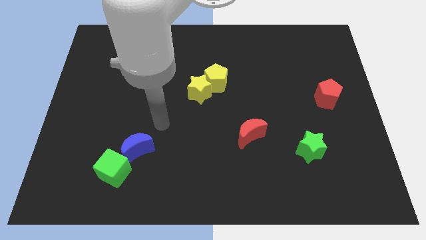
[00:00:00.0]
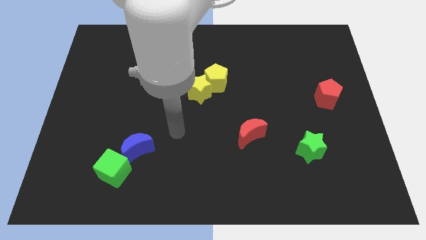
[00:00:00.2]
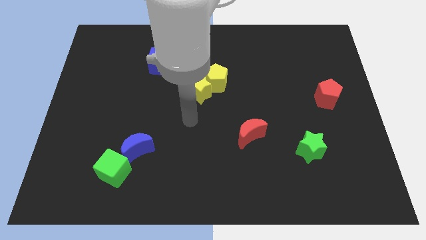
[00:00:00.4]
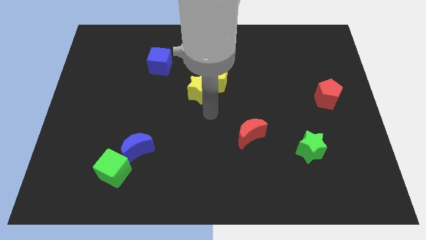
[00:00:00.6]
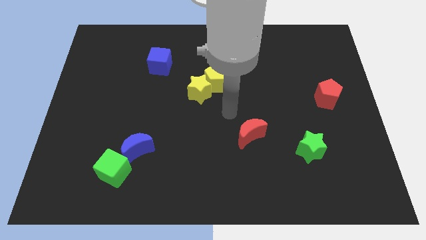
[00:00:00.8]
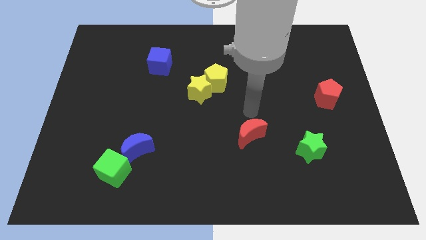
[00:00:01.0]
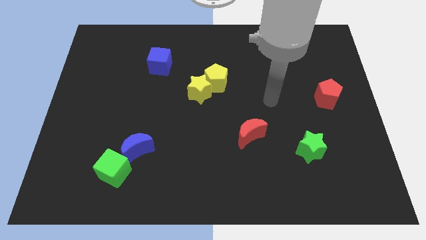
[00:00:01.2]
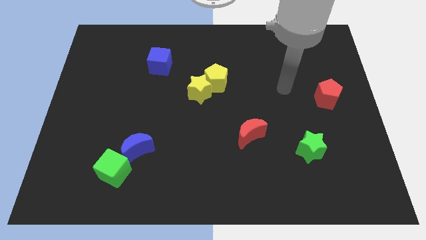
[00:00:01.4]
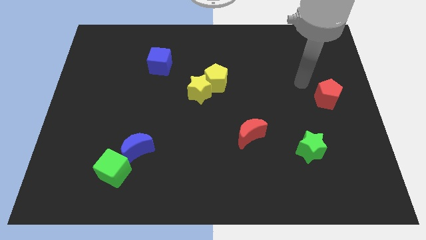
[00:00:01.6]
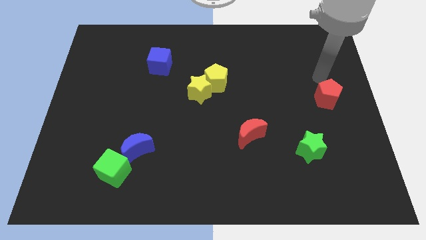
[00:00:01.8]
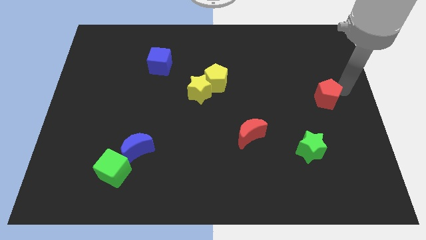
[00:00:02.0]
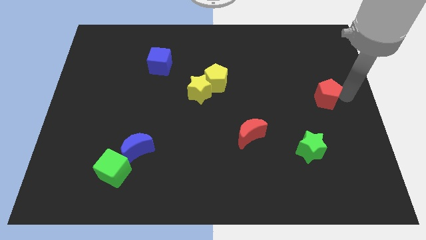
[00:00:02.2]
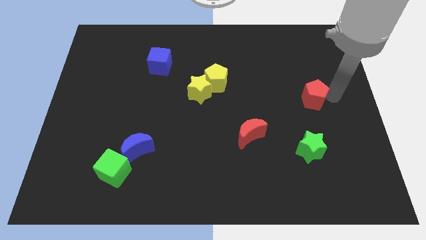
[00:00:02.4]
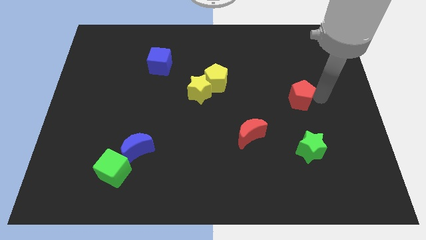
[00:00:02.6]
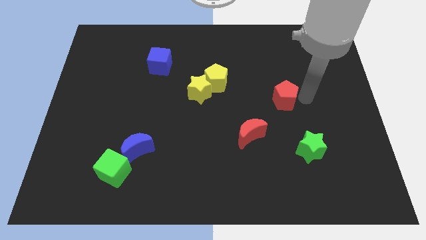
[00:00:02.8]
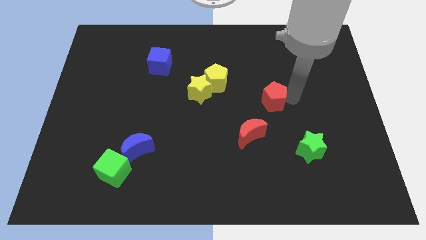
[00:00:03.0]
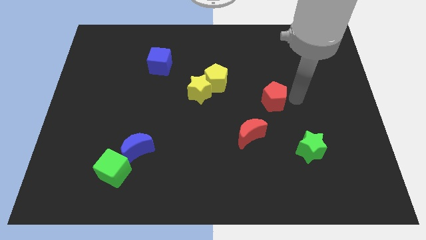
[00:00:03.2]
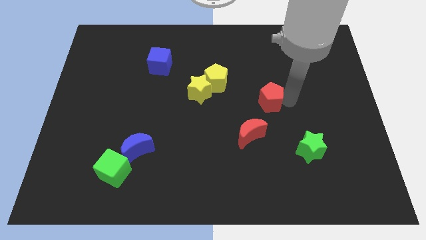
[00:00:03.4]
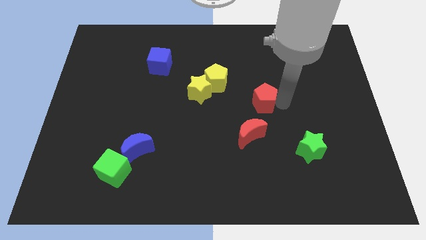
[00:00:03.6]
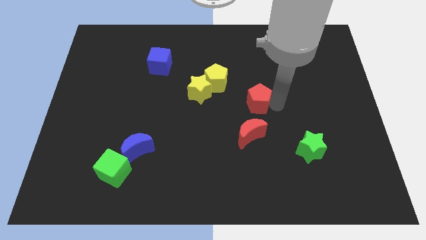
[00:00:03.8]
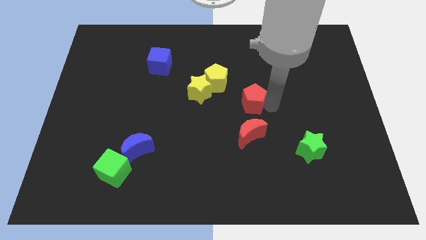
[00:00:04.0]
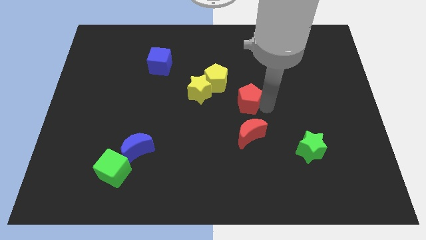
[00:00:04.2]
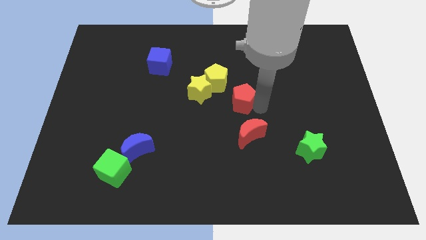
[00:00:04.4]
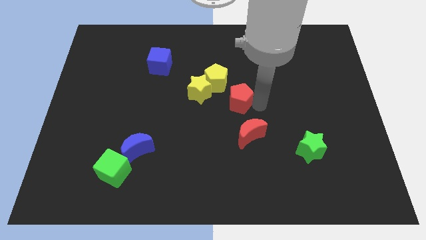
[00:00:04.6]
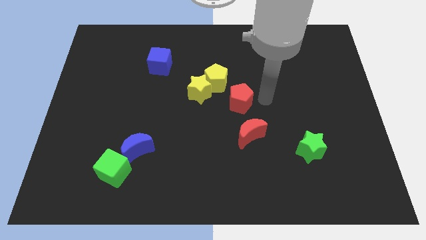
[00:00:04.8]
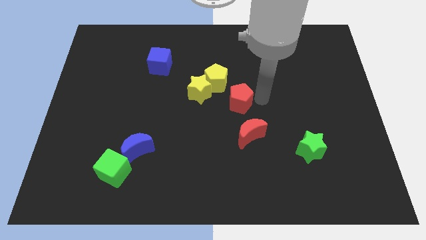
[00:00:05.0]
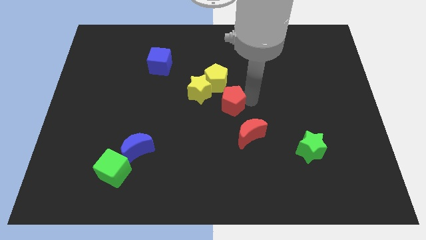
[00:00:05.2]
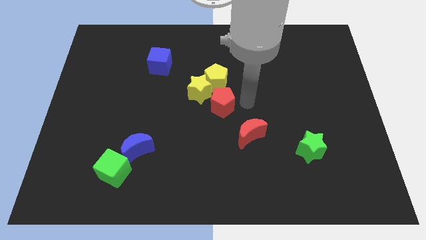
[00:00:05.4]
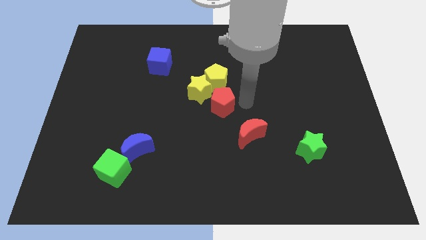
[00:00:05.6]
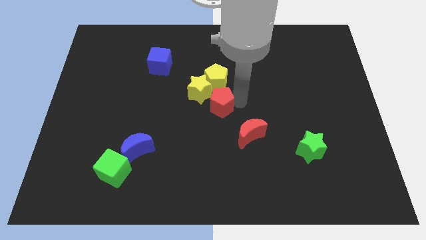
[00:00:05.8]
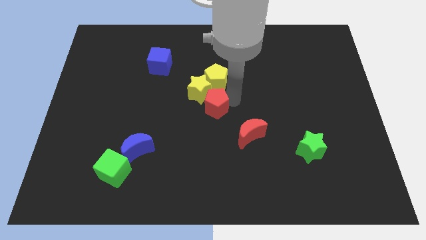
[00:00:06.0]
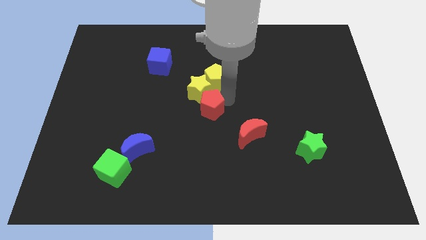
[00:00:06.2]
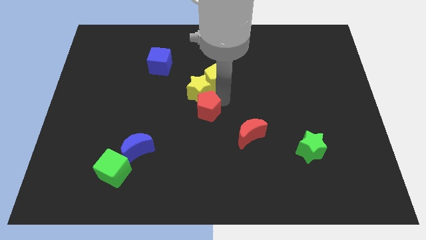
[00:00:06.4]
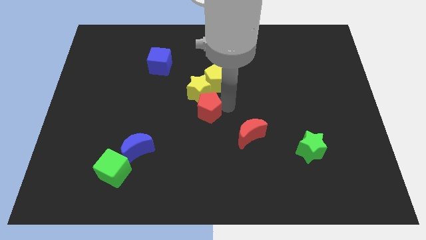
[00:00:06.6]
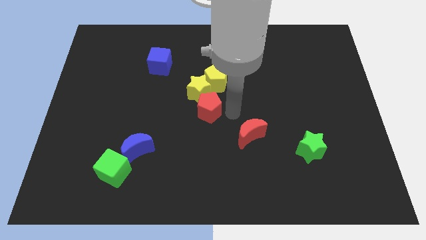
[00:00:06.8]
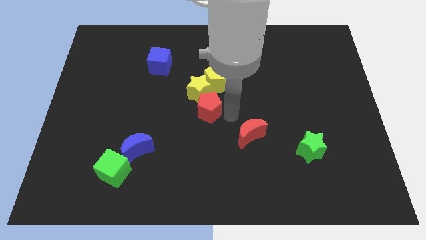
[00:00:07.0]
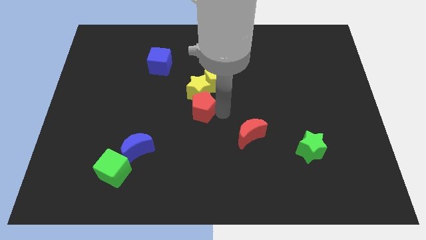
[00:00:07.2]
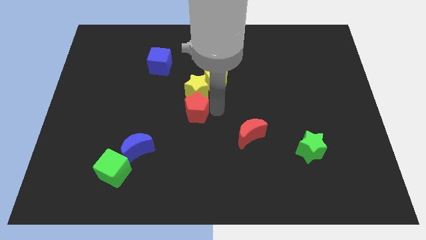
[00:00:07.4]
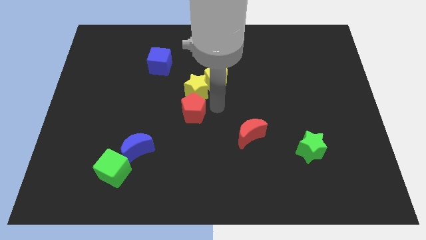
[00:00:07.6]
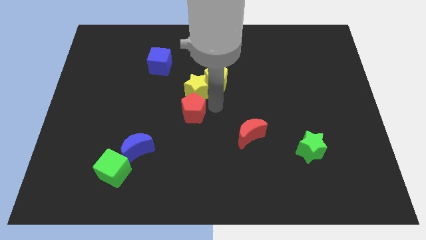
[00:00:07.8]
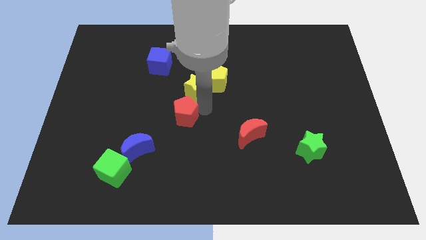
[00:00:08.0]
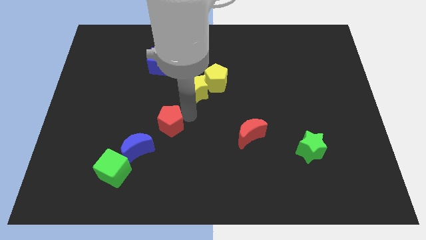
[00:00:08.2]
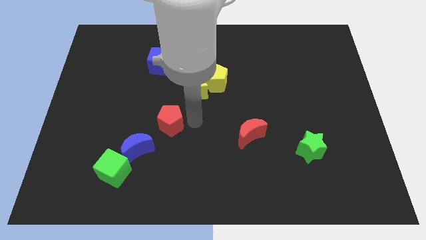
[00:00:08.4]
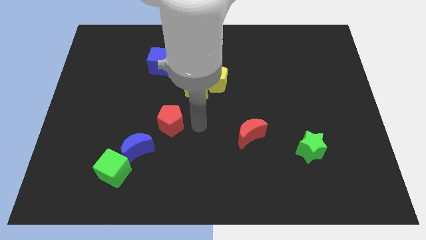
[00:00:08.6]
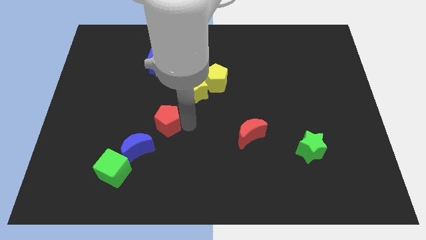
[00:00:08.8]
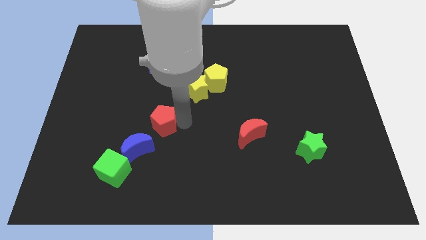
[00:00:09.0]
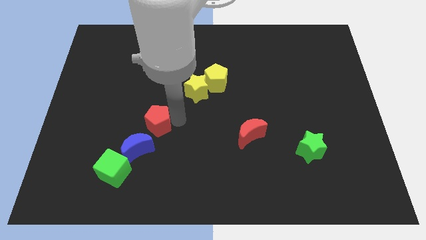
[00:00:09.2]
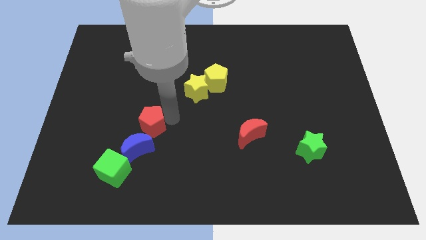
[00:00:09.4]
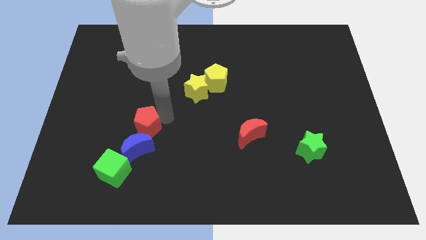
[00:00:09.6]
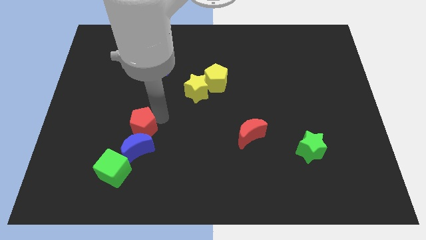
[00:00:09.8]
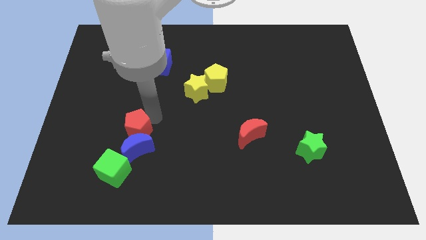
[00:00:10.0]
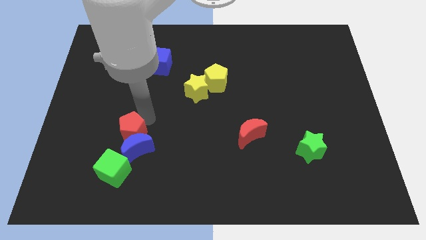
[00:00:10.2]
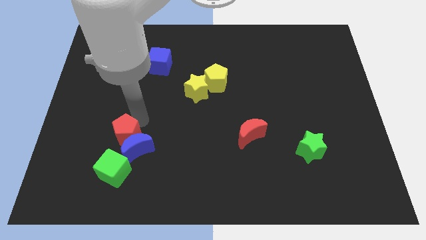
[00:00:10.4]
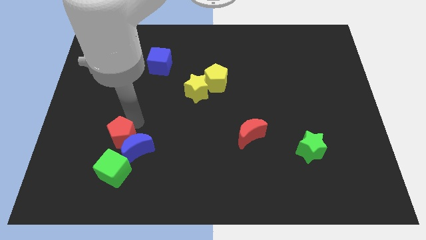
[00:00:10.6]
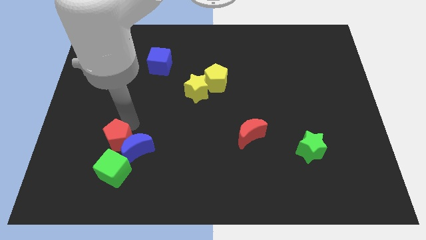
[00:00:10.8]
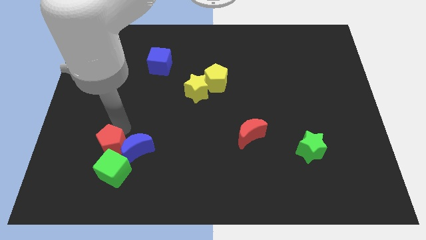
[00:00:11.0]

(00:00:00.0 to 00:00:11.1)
put the red pentagon to the bottom left side of the blue moon

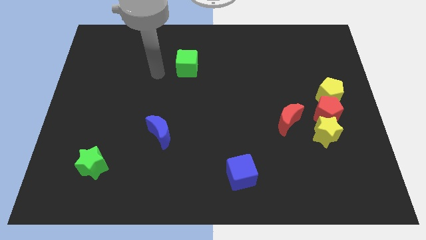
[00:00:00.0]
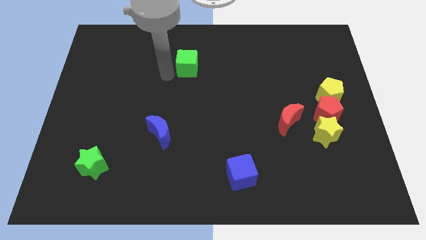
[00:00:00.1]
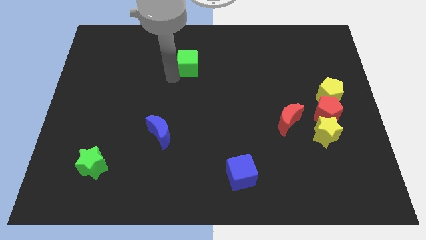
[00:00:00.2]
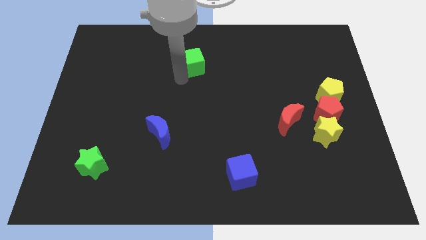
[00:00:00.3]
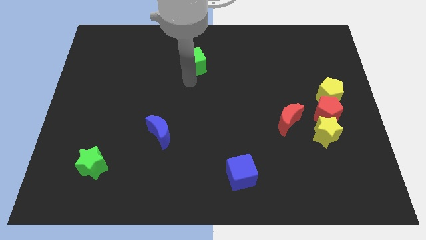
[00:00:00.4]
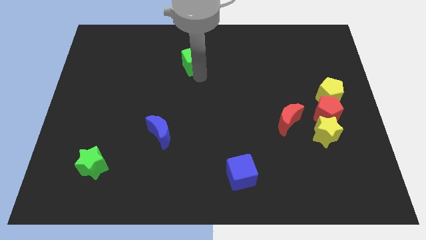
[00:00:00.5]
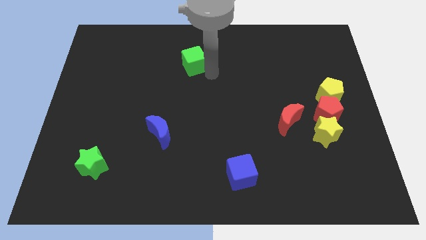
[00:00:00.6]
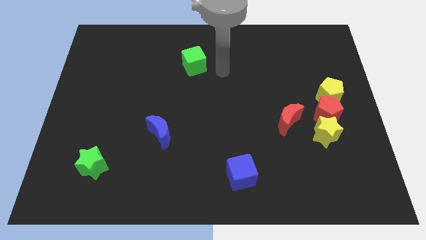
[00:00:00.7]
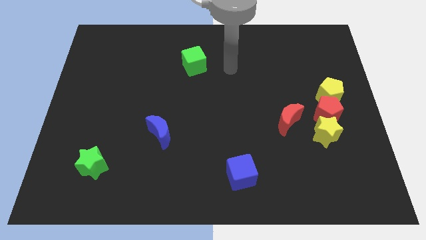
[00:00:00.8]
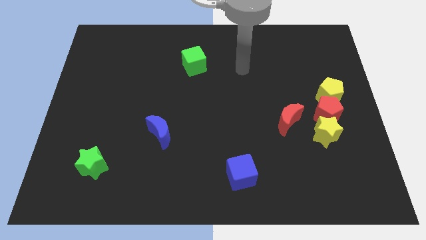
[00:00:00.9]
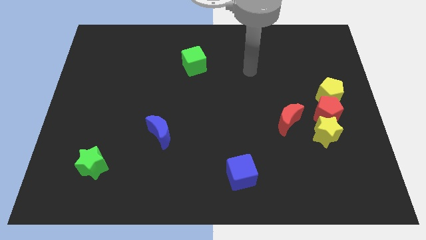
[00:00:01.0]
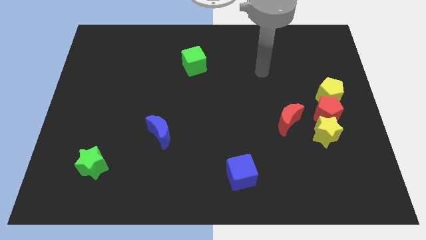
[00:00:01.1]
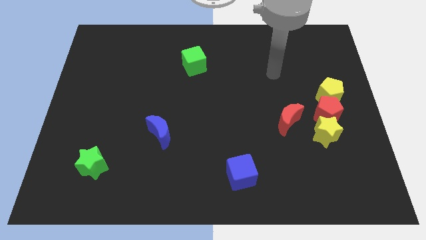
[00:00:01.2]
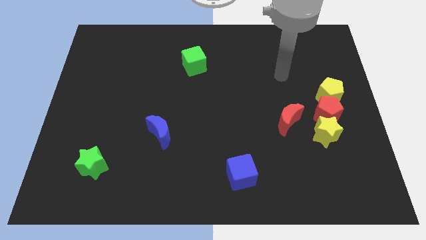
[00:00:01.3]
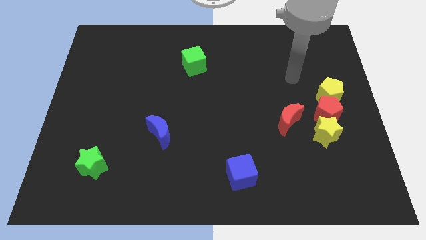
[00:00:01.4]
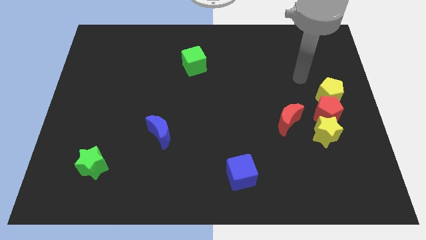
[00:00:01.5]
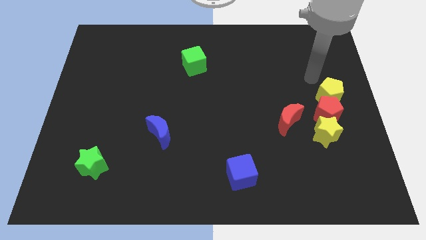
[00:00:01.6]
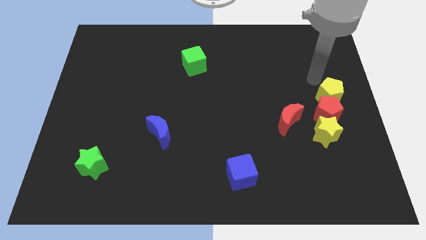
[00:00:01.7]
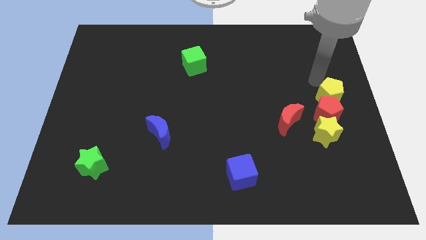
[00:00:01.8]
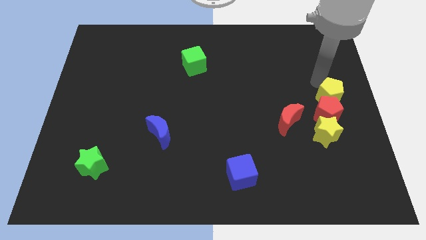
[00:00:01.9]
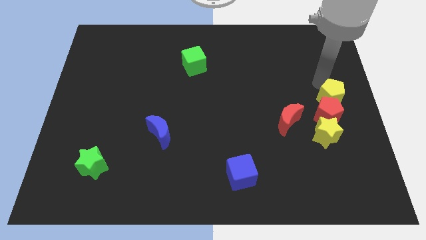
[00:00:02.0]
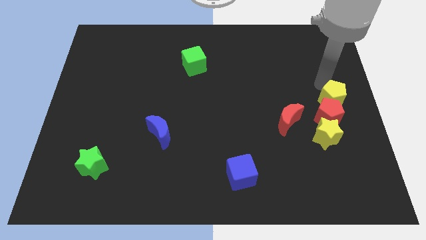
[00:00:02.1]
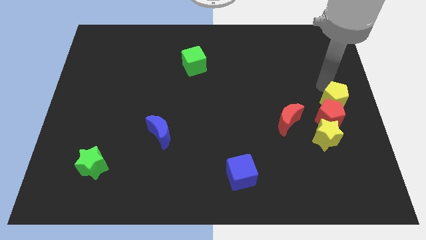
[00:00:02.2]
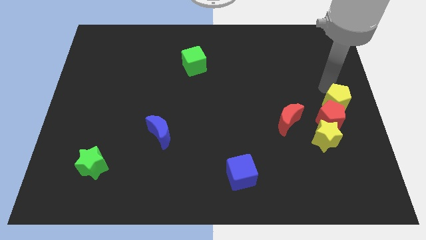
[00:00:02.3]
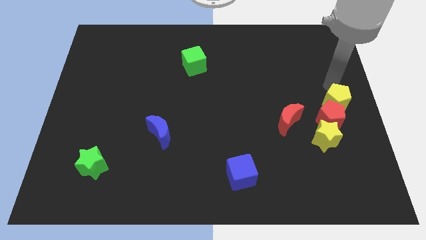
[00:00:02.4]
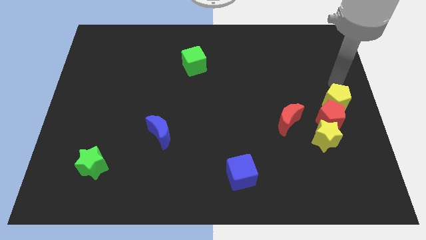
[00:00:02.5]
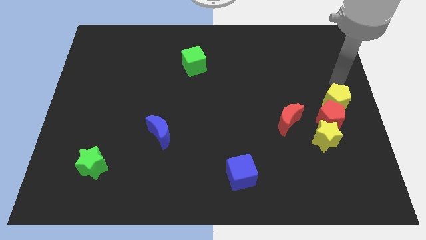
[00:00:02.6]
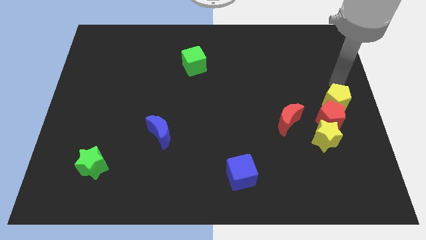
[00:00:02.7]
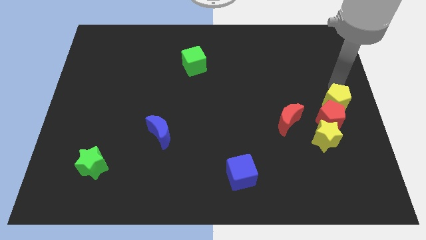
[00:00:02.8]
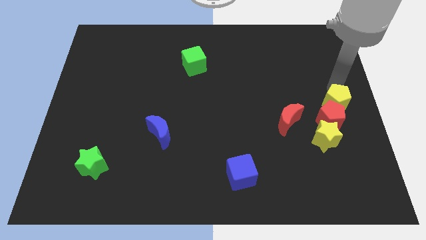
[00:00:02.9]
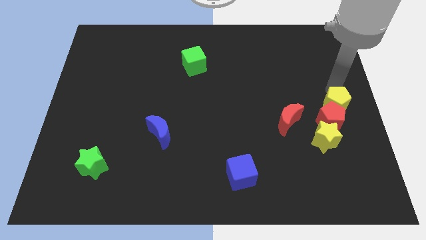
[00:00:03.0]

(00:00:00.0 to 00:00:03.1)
put the yellow pentagon just right of the red moon
